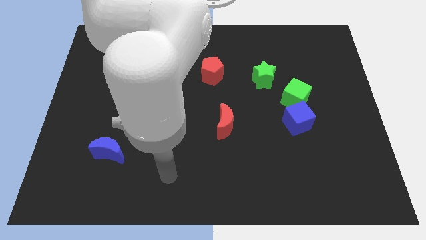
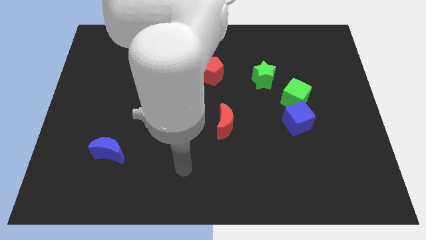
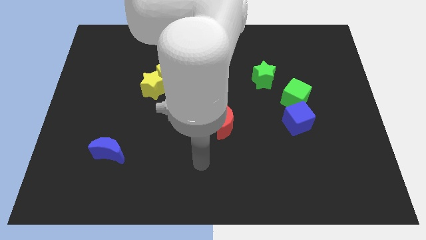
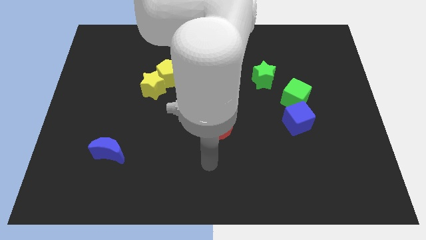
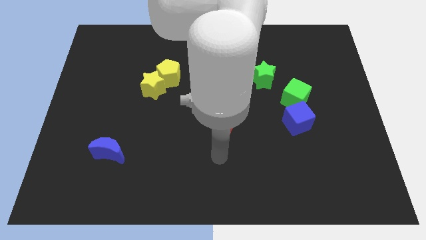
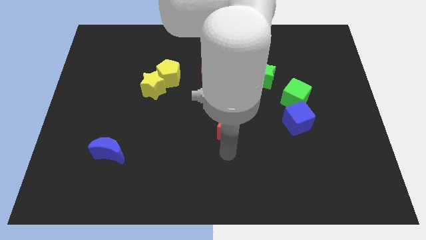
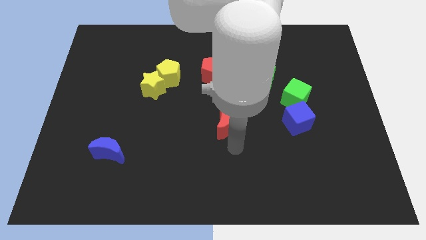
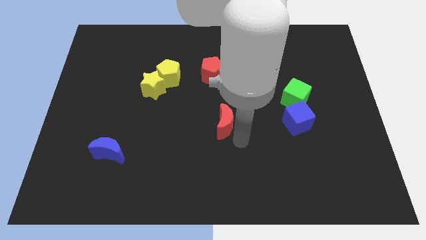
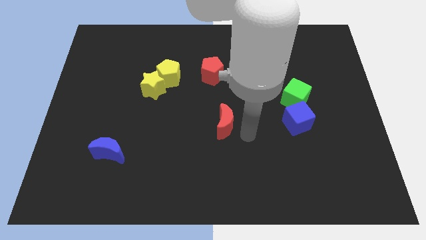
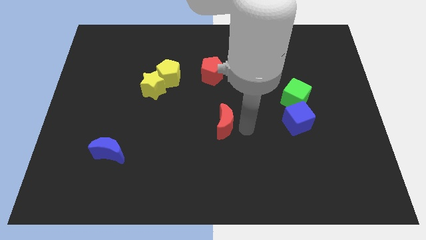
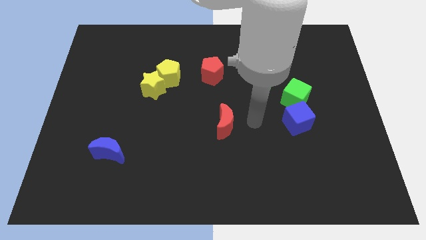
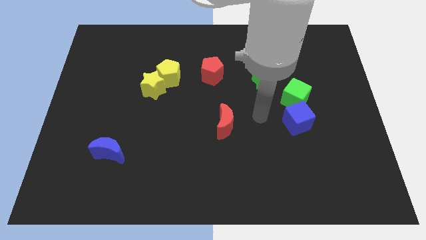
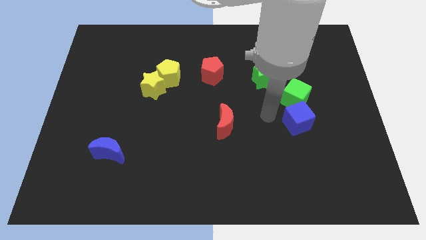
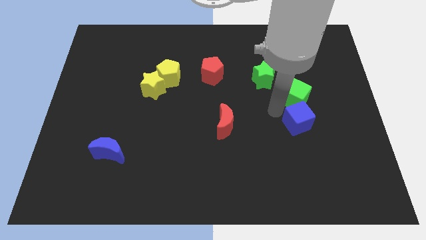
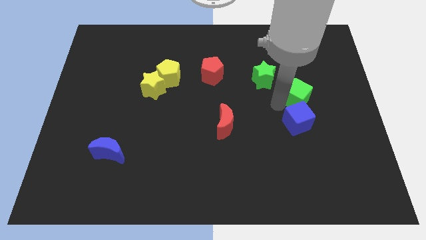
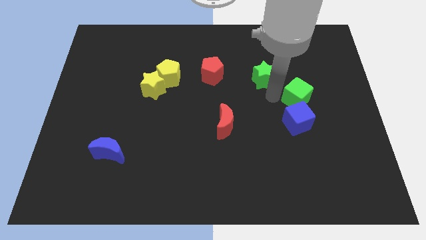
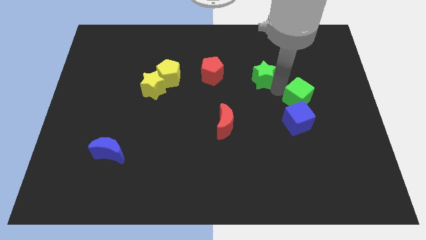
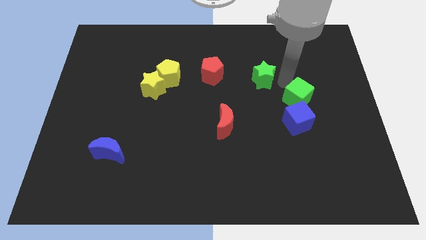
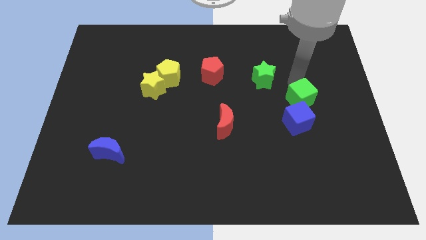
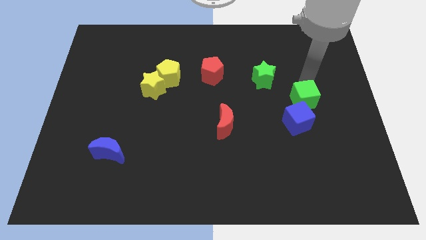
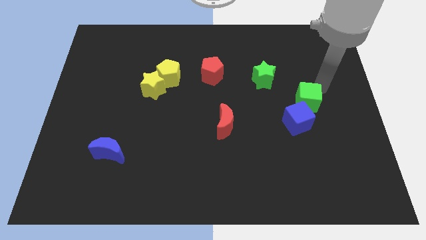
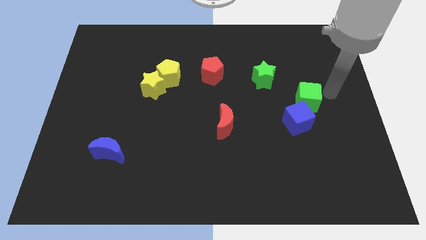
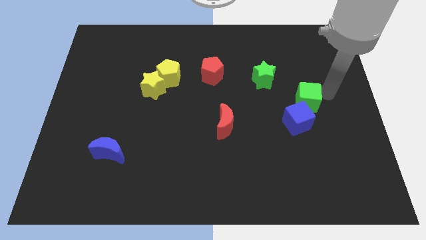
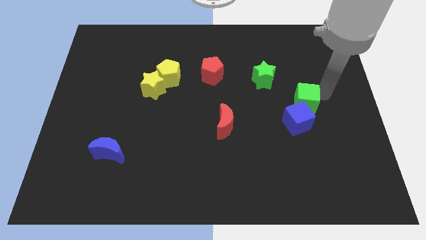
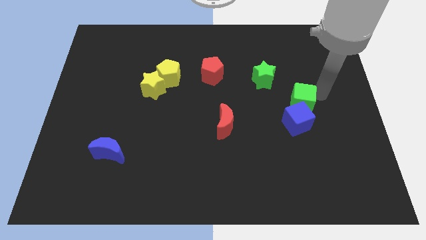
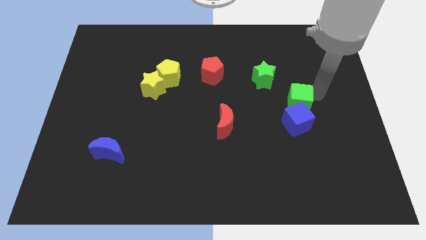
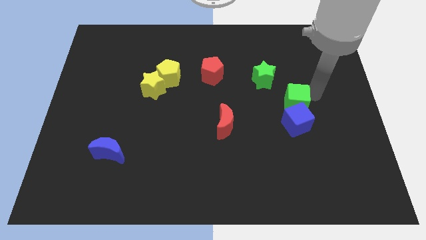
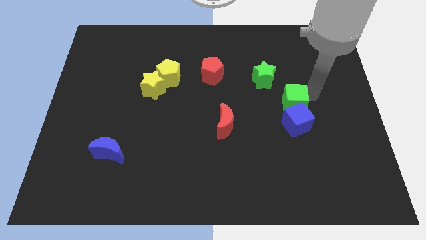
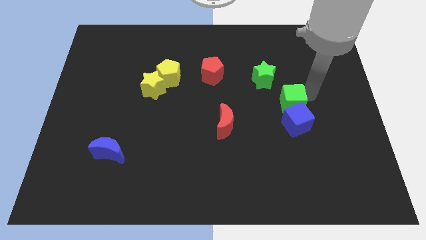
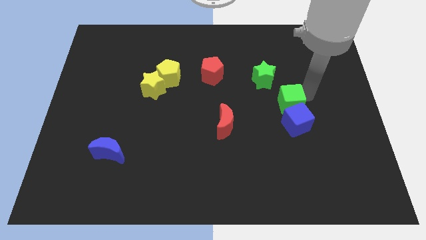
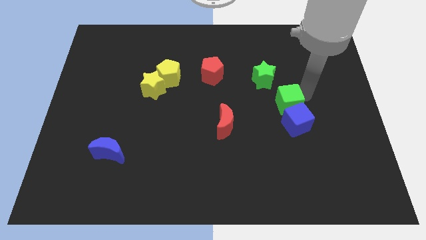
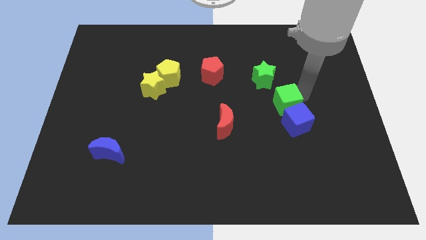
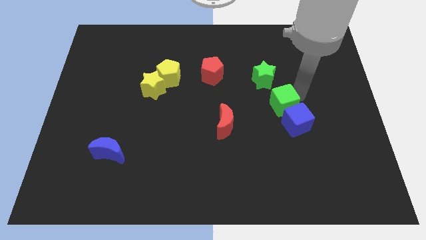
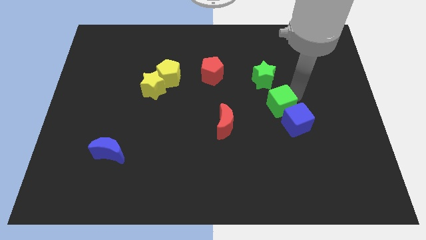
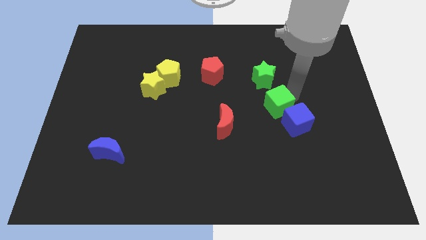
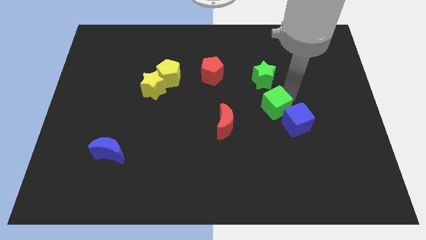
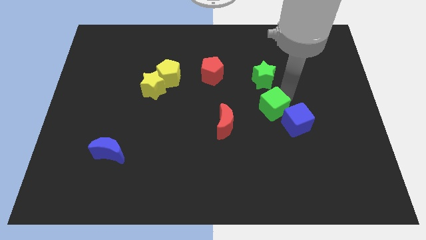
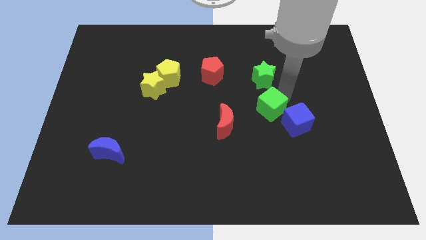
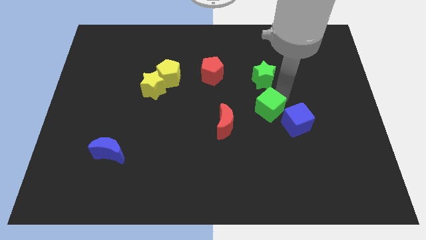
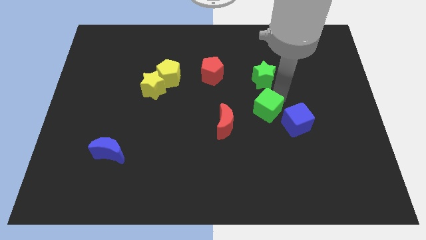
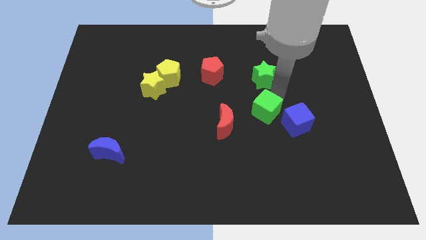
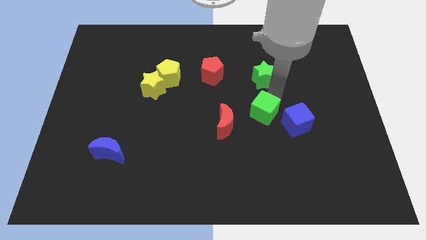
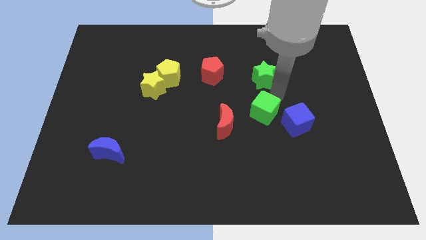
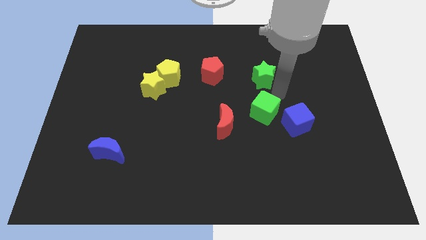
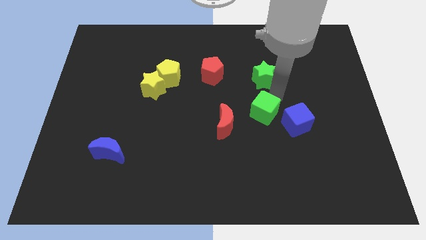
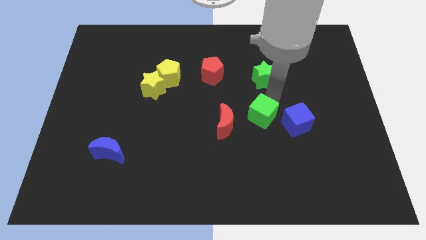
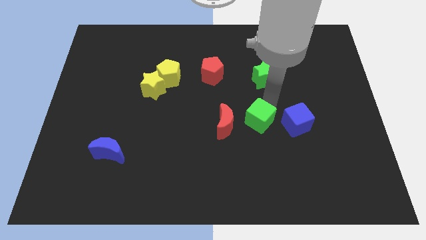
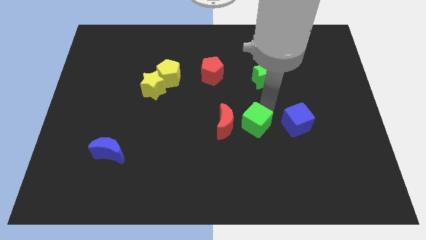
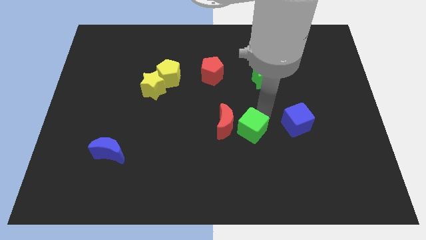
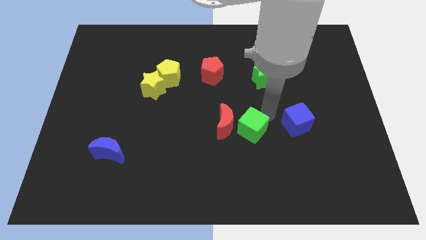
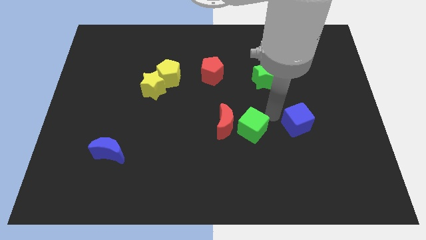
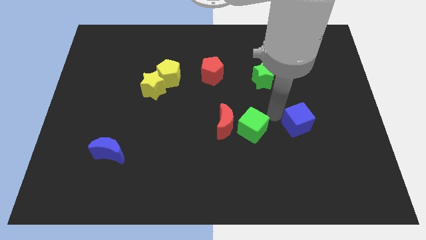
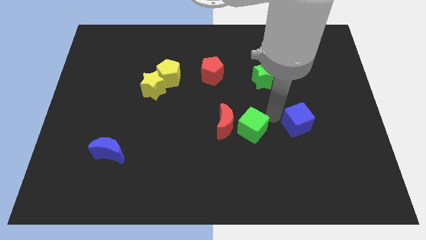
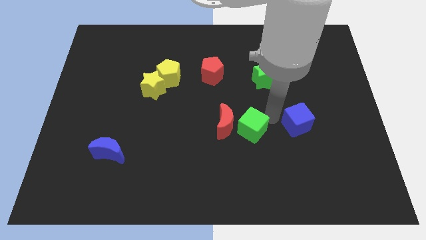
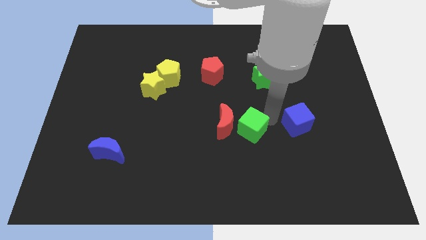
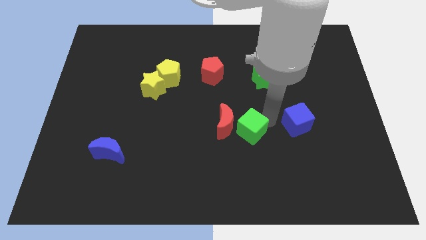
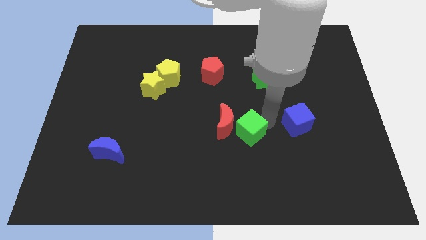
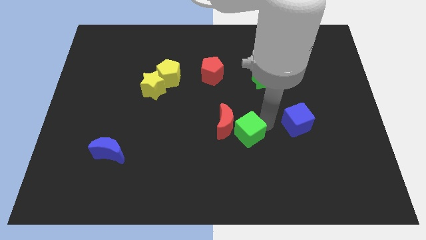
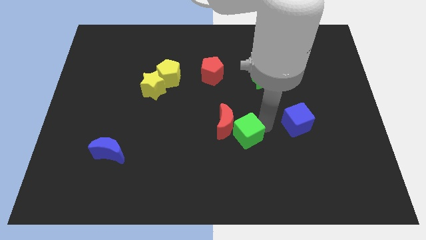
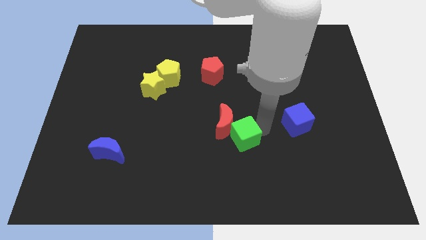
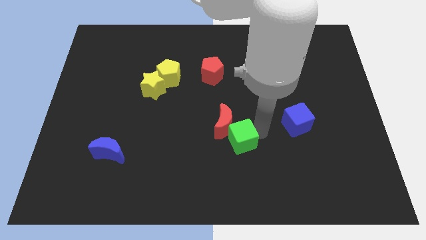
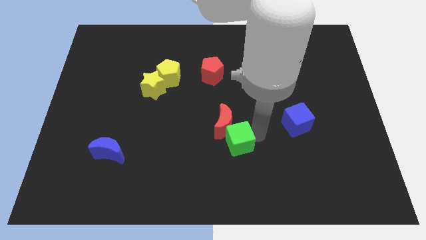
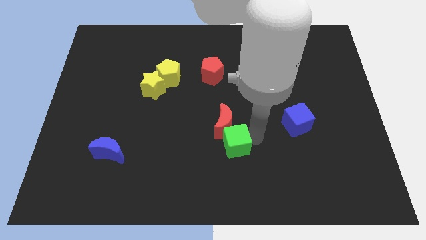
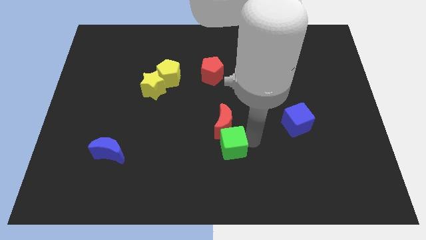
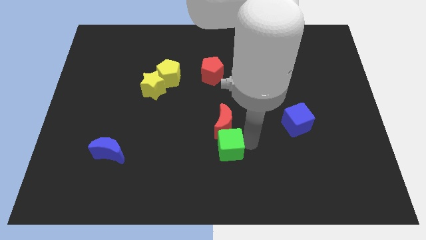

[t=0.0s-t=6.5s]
slide the green cube to the bottom left of the red moon

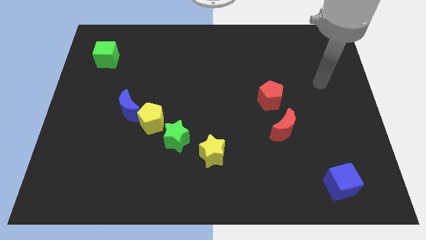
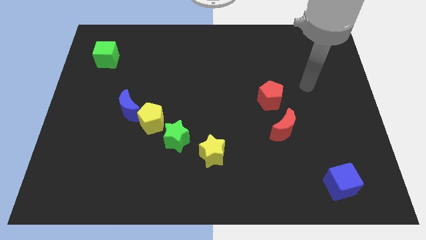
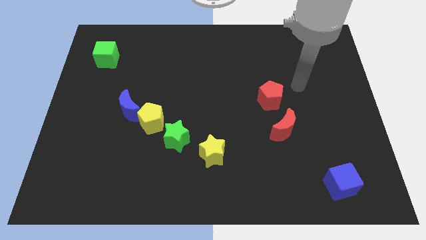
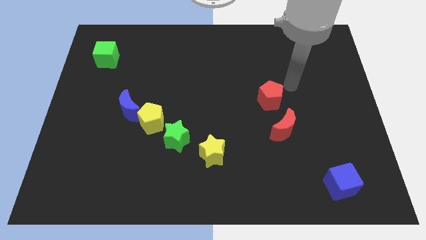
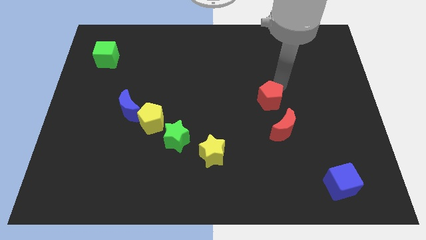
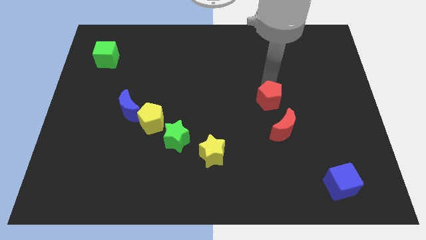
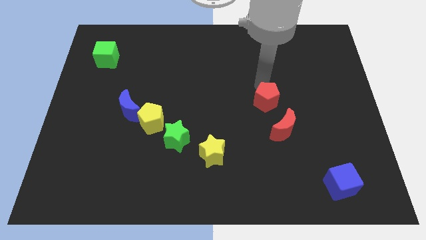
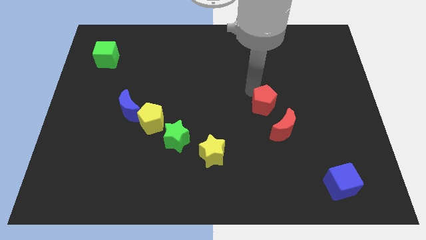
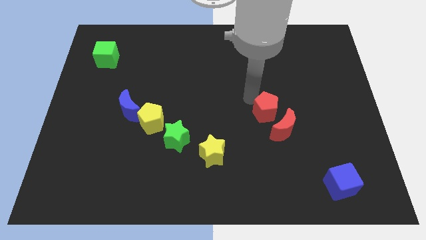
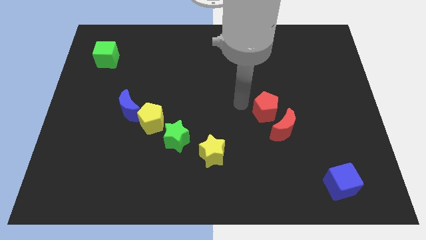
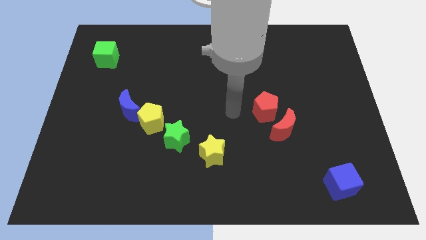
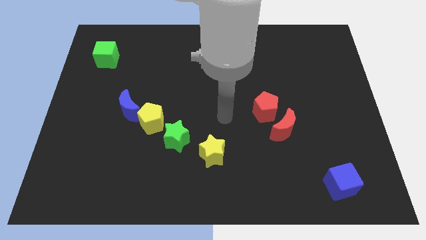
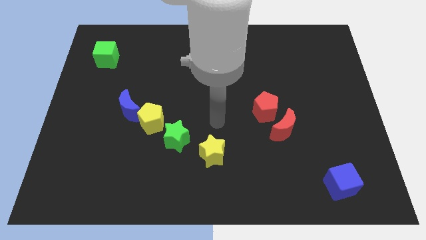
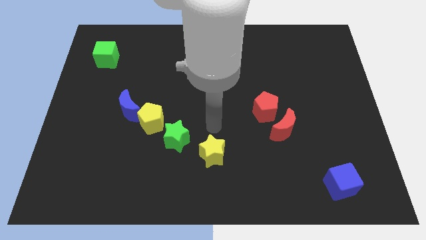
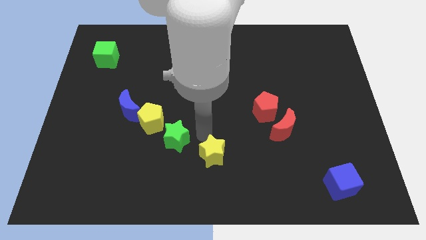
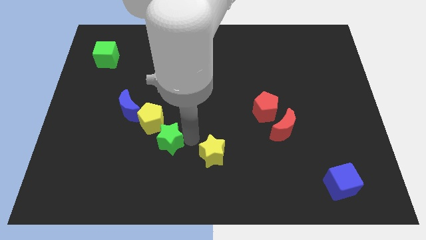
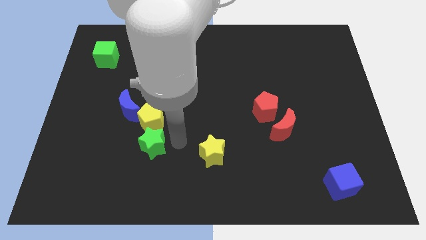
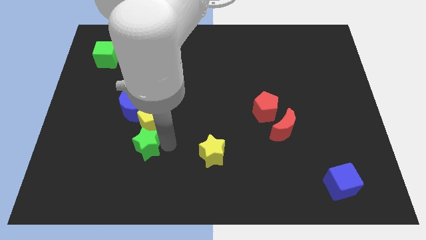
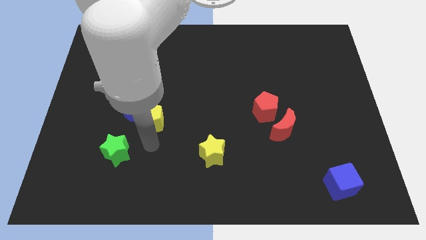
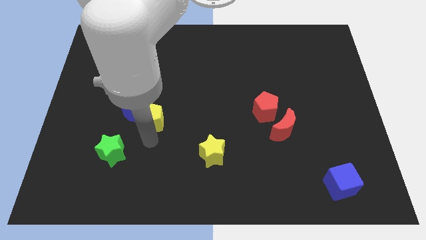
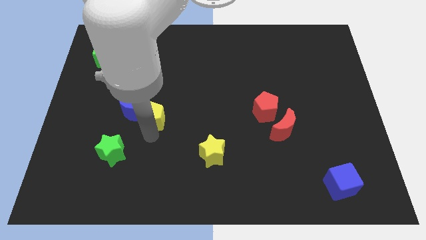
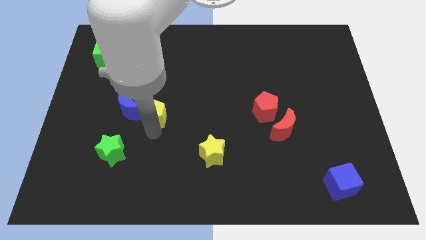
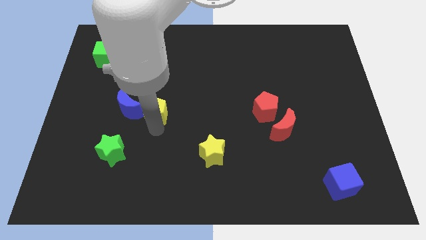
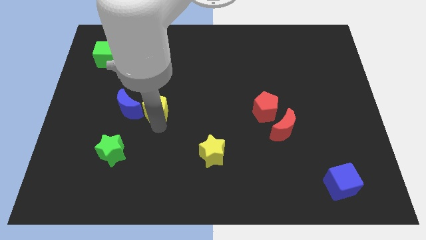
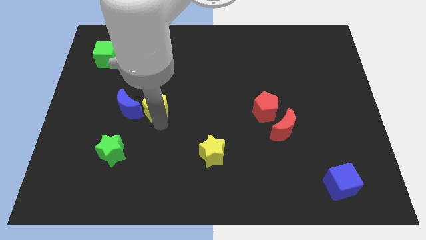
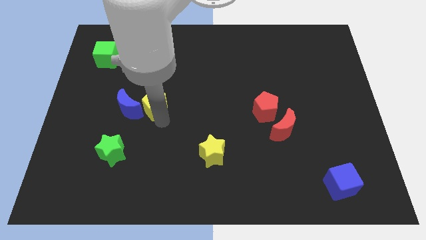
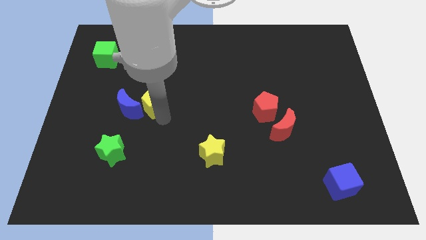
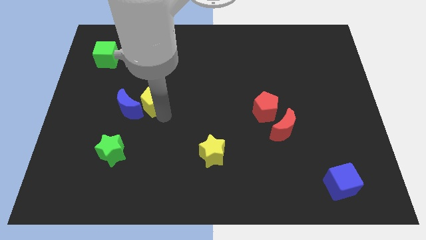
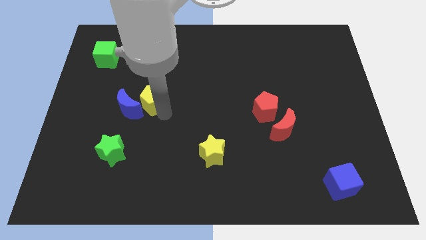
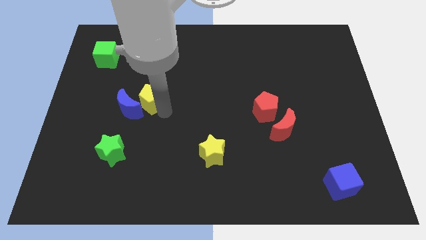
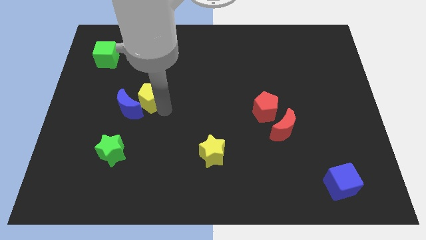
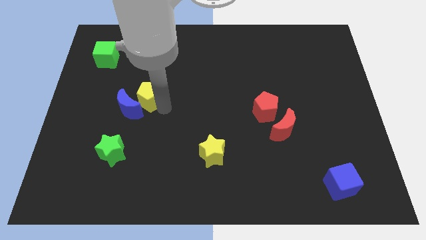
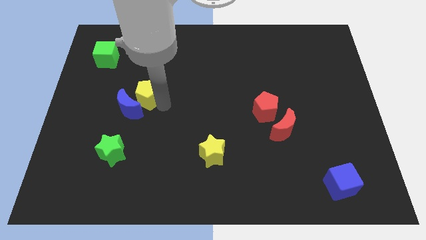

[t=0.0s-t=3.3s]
push the yellow pentagon to the top side of the blue moon
